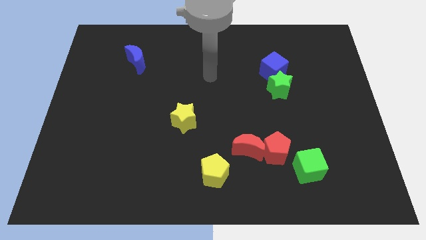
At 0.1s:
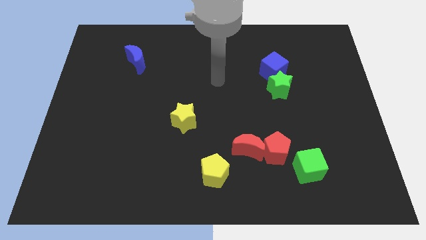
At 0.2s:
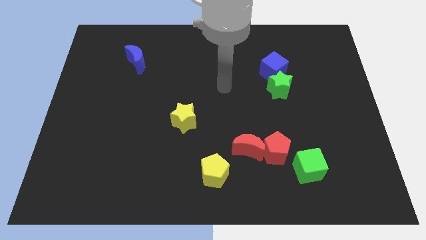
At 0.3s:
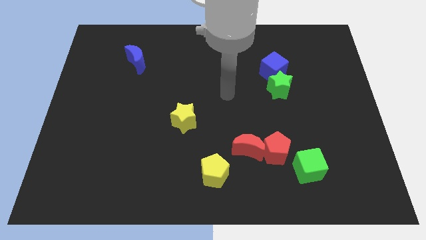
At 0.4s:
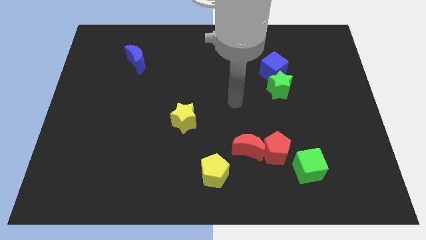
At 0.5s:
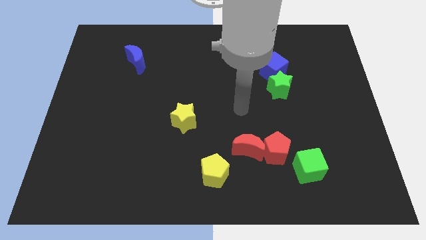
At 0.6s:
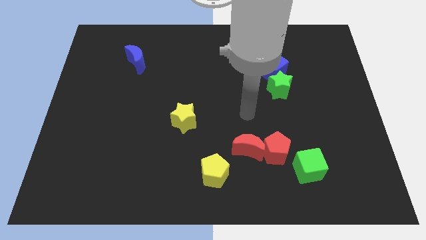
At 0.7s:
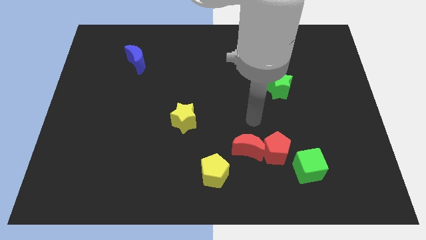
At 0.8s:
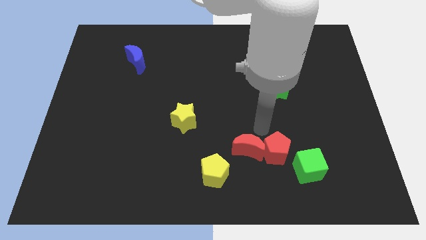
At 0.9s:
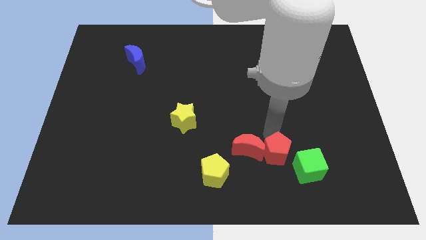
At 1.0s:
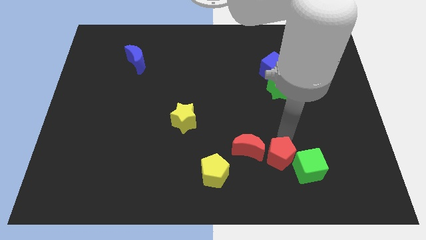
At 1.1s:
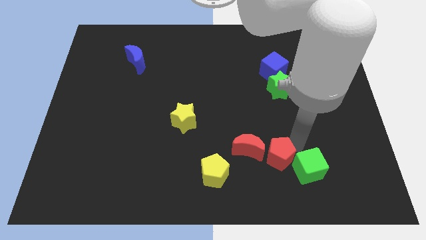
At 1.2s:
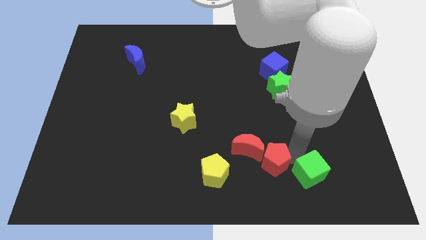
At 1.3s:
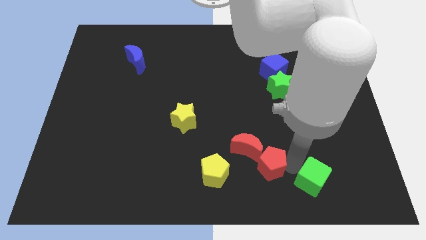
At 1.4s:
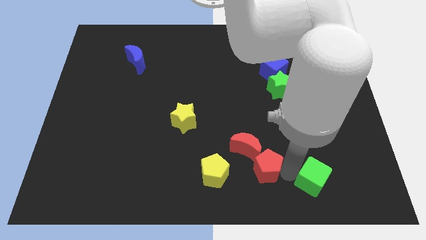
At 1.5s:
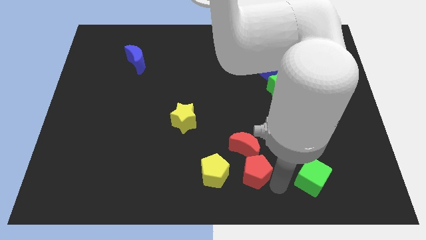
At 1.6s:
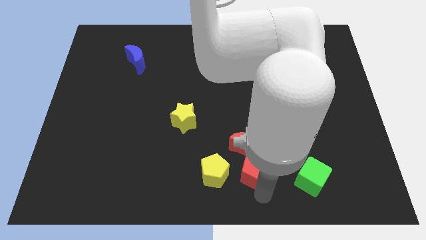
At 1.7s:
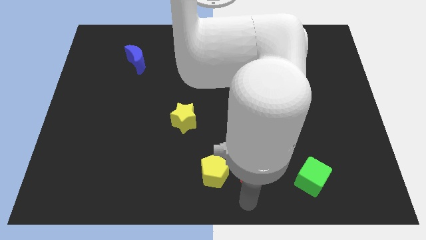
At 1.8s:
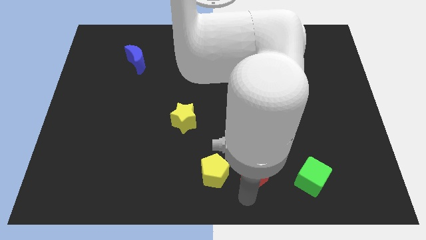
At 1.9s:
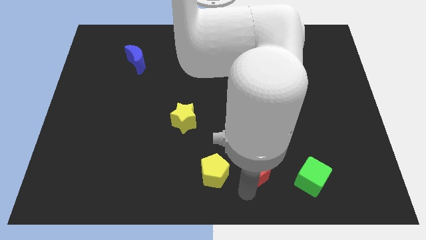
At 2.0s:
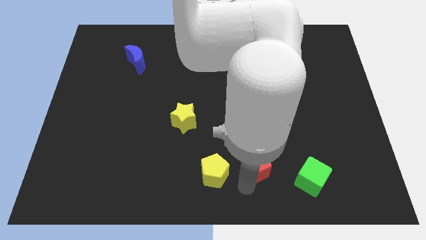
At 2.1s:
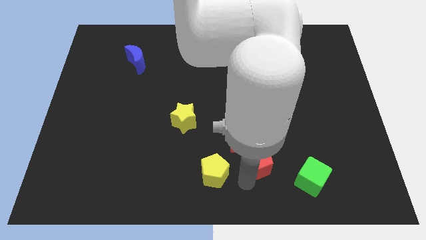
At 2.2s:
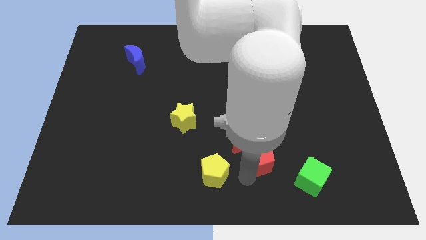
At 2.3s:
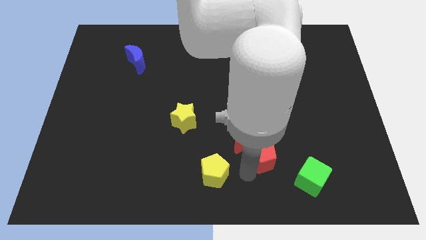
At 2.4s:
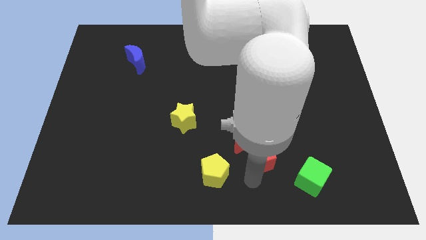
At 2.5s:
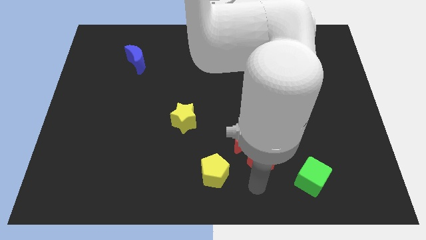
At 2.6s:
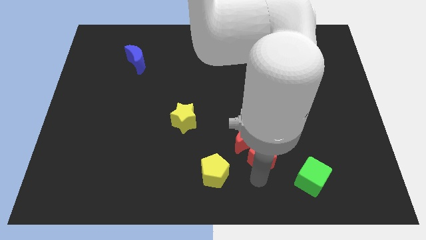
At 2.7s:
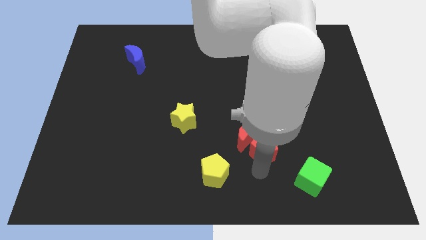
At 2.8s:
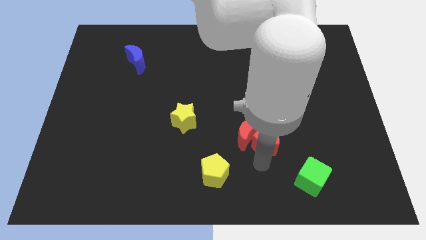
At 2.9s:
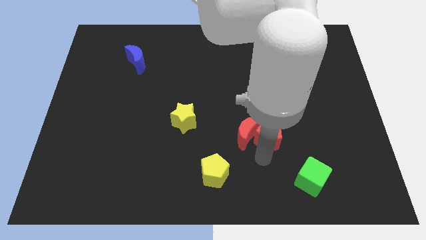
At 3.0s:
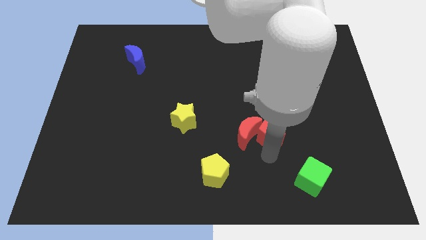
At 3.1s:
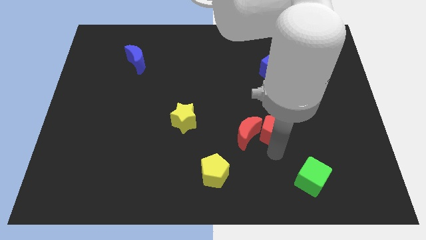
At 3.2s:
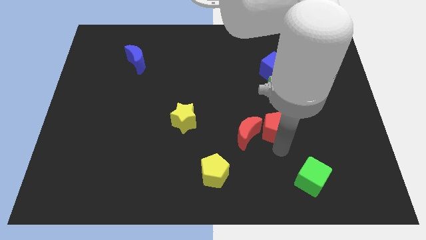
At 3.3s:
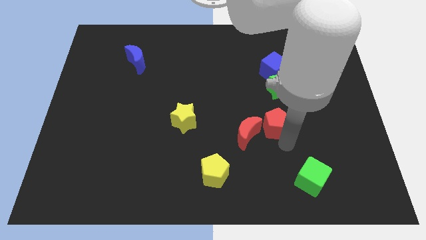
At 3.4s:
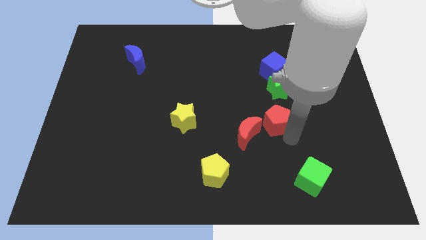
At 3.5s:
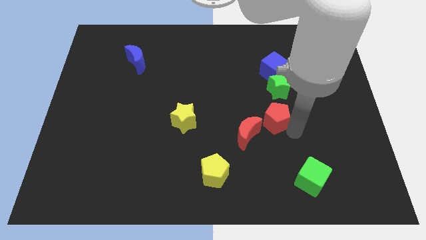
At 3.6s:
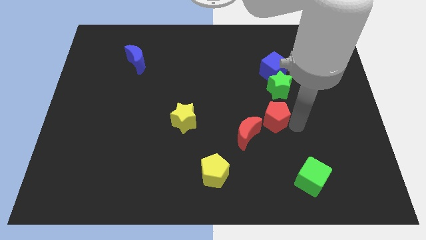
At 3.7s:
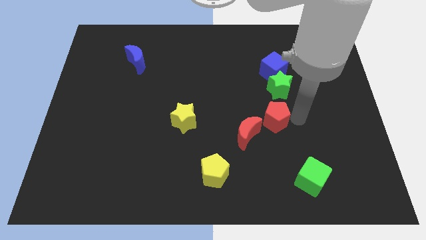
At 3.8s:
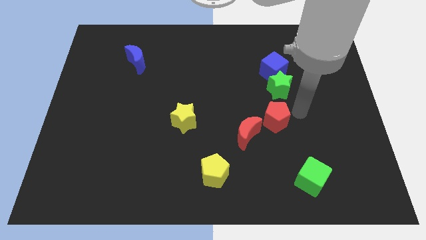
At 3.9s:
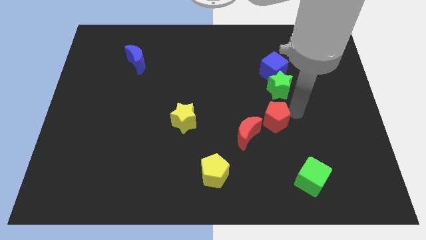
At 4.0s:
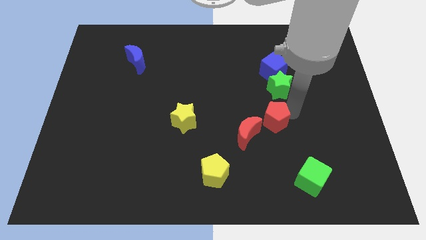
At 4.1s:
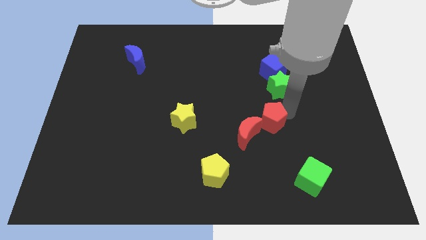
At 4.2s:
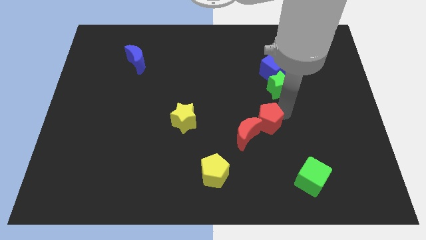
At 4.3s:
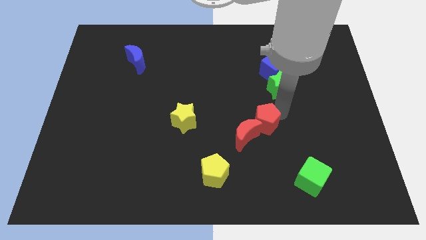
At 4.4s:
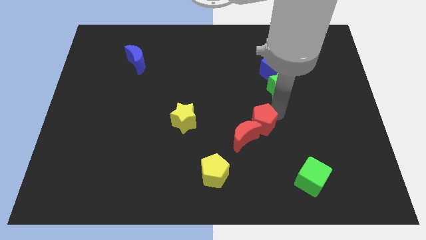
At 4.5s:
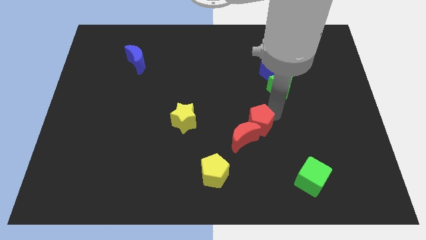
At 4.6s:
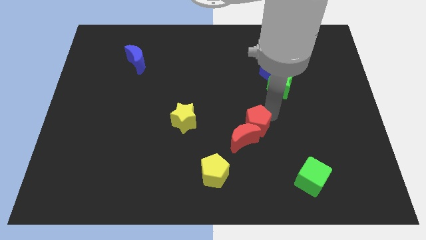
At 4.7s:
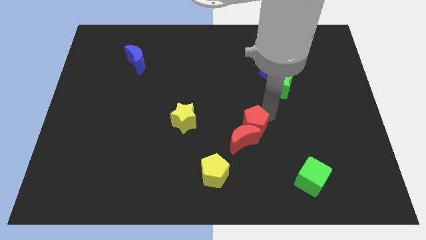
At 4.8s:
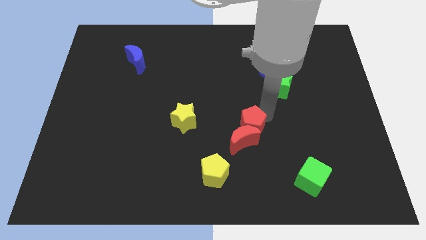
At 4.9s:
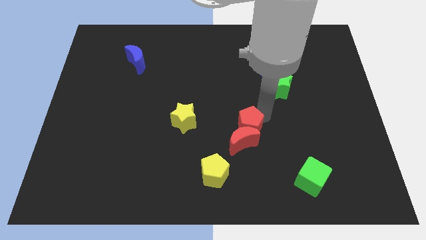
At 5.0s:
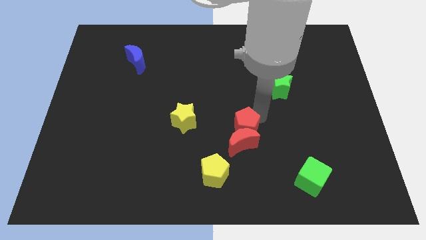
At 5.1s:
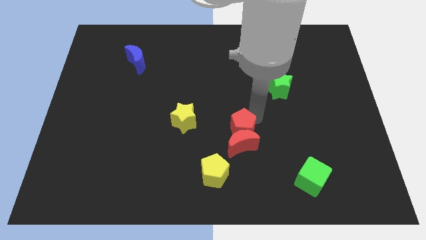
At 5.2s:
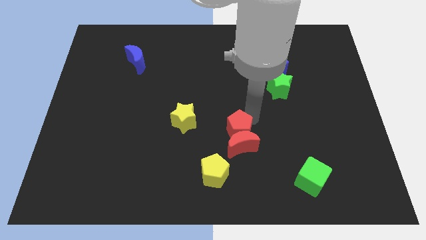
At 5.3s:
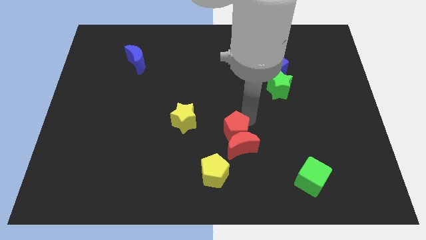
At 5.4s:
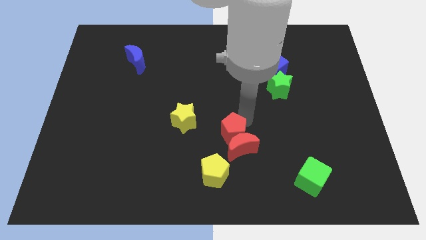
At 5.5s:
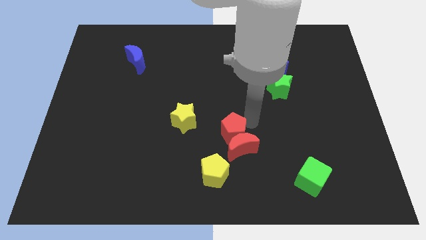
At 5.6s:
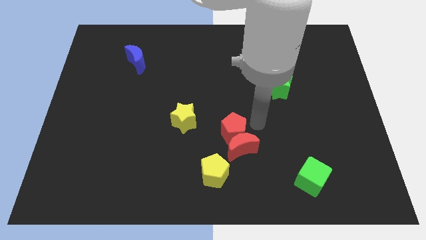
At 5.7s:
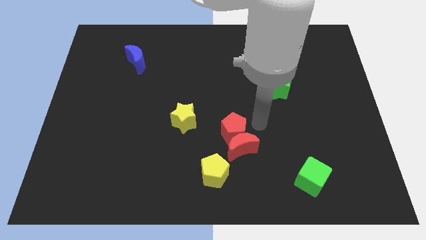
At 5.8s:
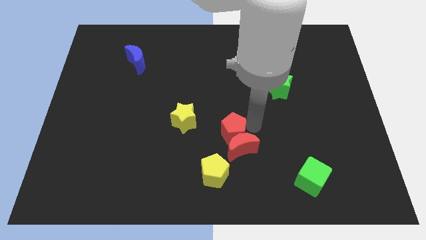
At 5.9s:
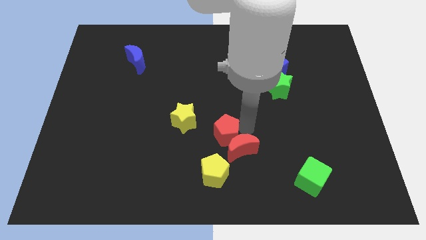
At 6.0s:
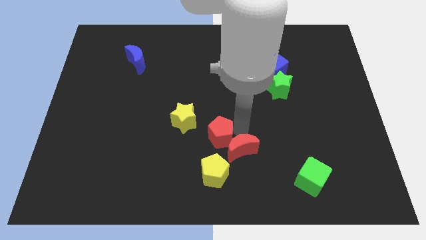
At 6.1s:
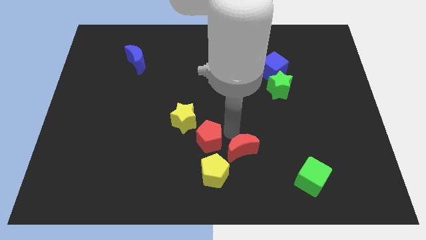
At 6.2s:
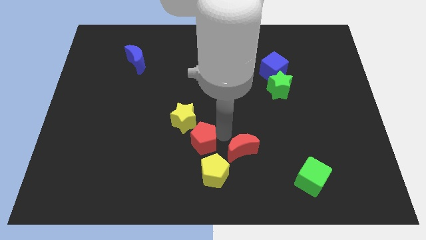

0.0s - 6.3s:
push the red pentagon below the yellow star

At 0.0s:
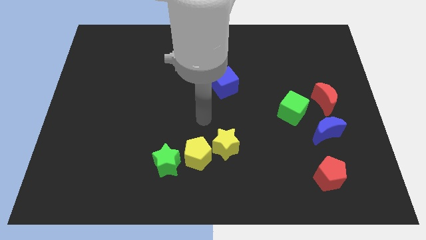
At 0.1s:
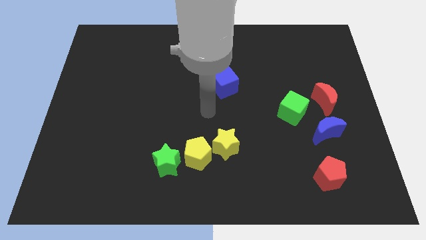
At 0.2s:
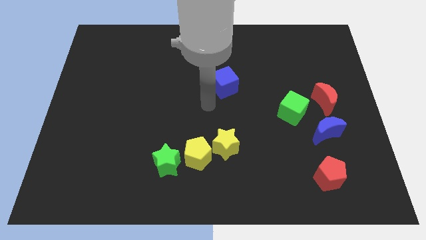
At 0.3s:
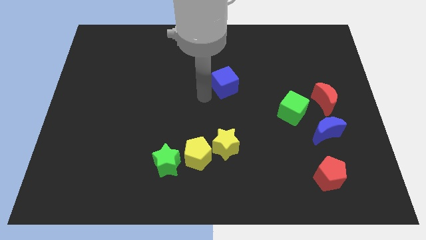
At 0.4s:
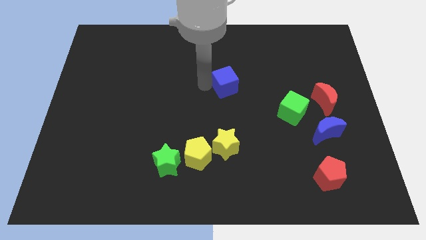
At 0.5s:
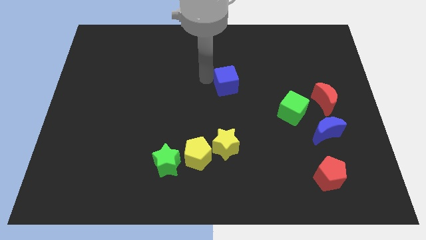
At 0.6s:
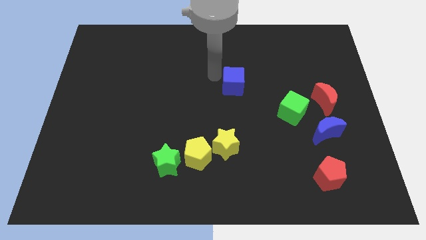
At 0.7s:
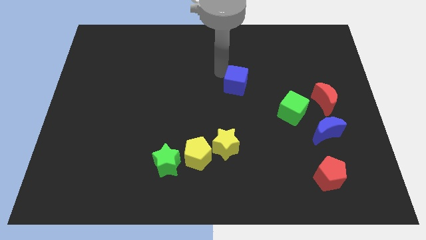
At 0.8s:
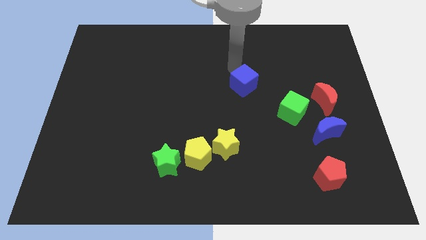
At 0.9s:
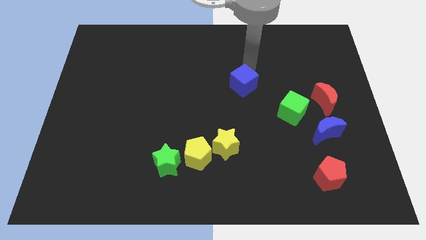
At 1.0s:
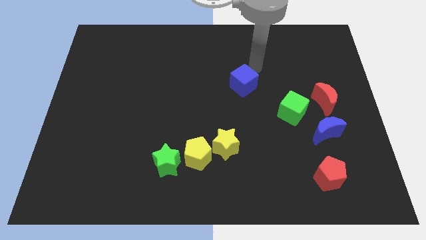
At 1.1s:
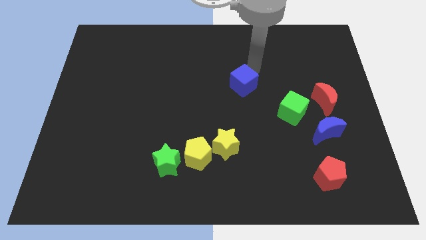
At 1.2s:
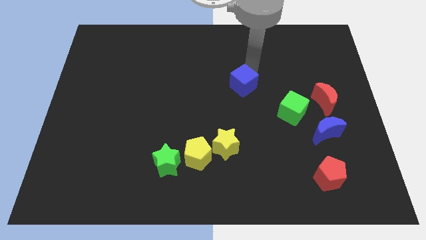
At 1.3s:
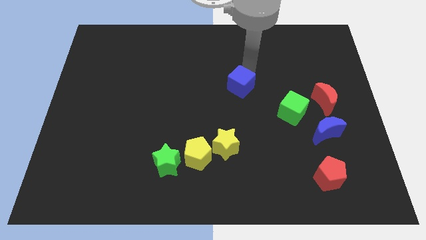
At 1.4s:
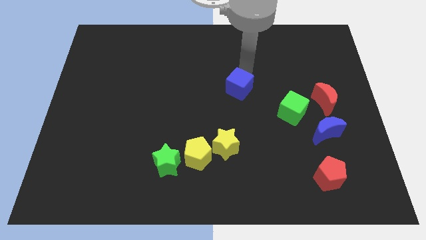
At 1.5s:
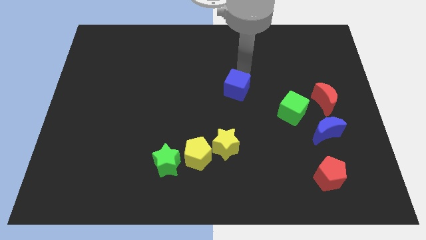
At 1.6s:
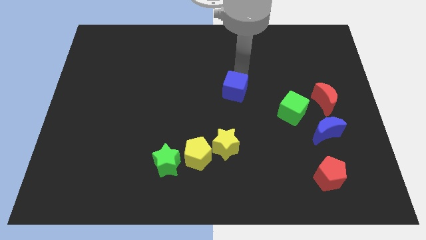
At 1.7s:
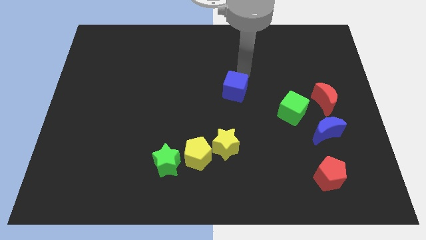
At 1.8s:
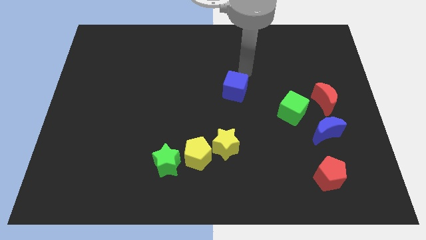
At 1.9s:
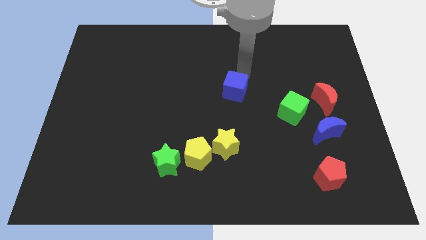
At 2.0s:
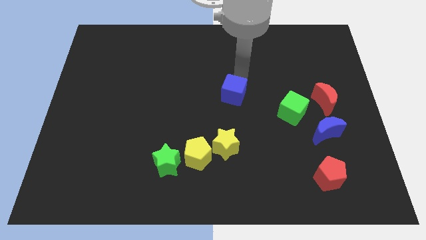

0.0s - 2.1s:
move the blue cube to the top side of the yellow star
